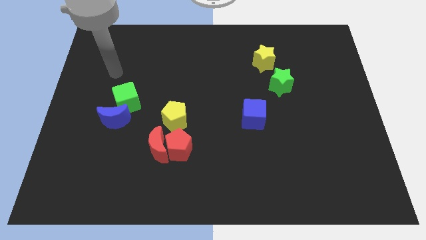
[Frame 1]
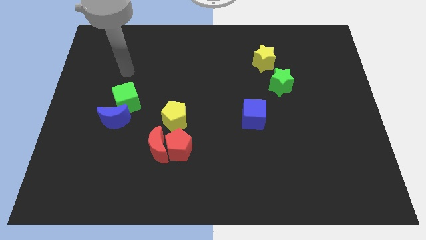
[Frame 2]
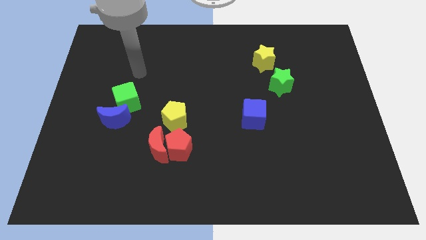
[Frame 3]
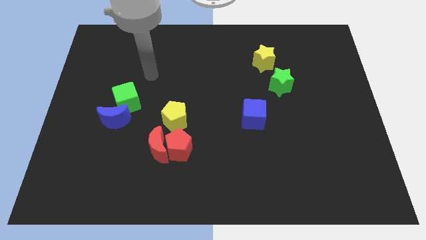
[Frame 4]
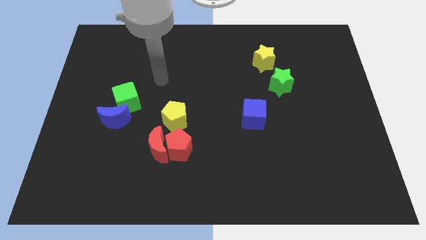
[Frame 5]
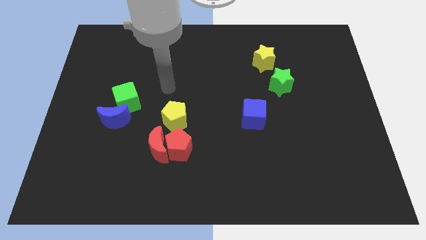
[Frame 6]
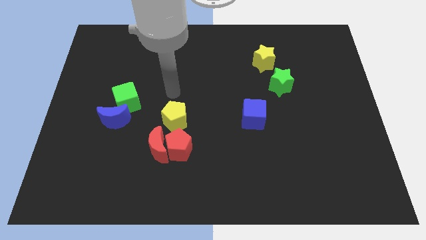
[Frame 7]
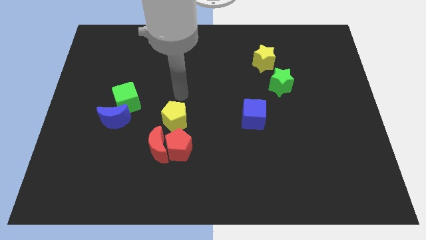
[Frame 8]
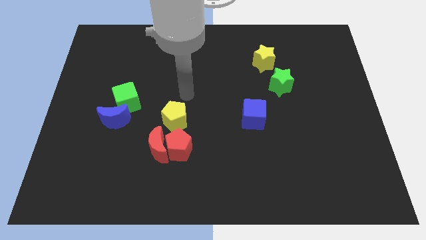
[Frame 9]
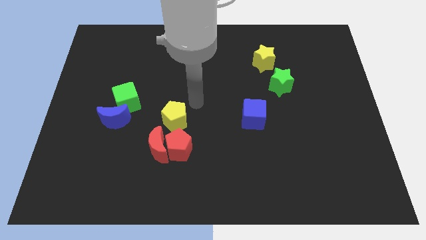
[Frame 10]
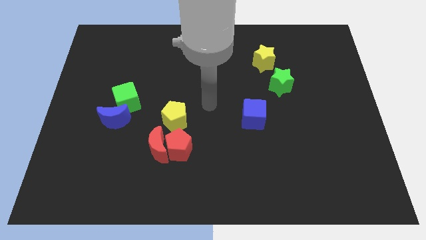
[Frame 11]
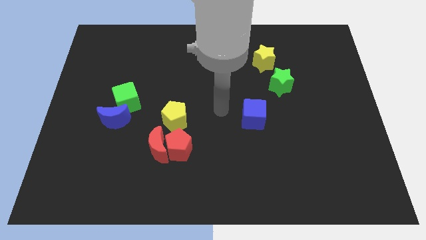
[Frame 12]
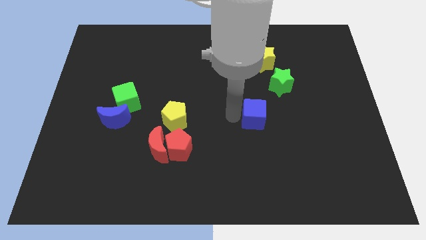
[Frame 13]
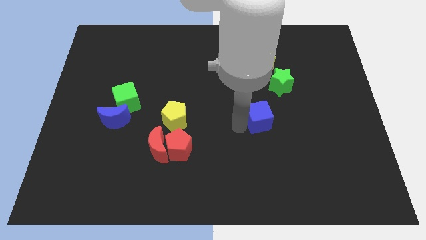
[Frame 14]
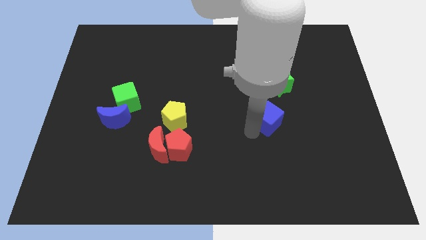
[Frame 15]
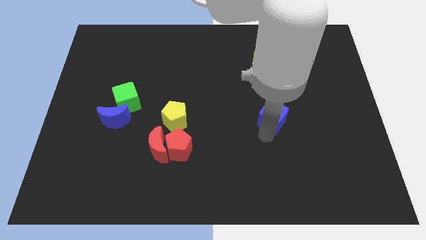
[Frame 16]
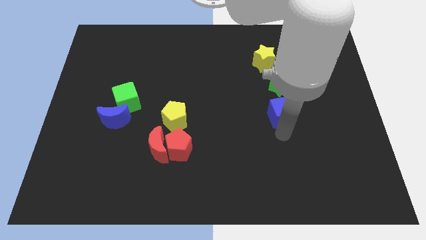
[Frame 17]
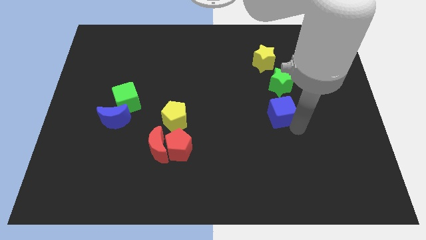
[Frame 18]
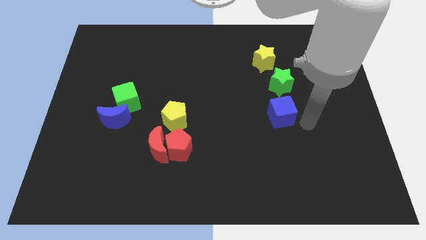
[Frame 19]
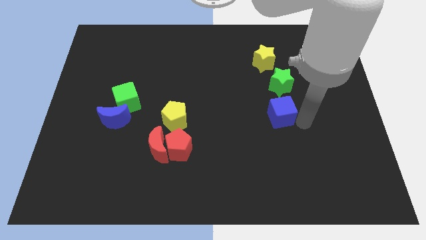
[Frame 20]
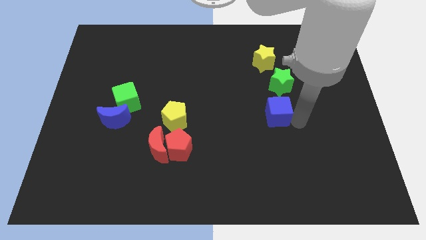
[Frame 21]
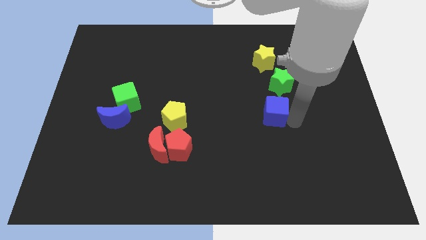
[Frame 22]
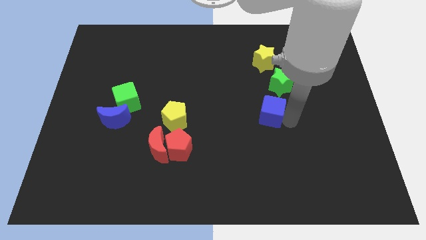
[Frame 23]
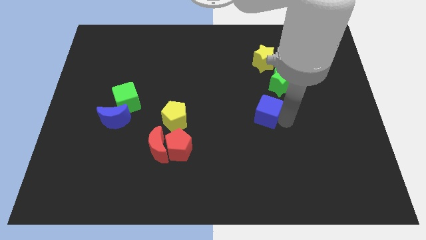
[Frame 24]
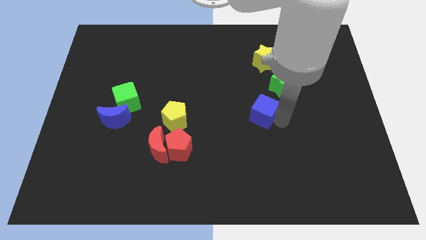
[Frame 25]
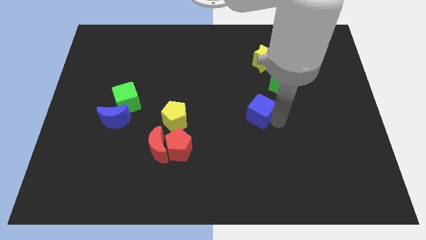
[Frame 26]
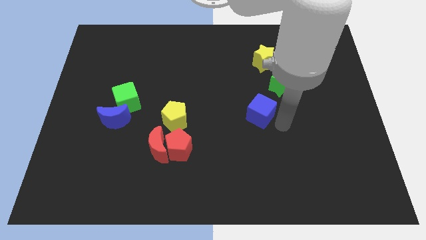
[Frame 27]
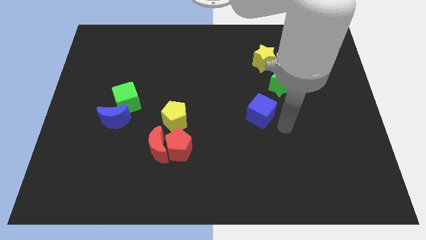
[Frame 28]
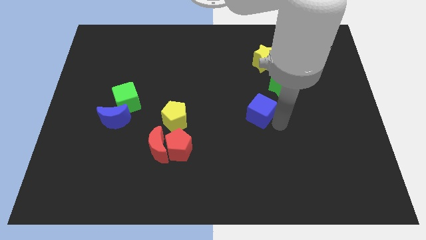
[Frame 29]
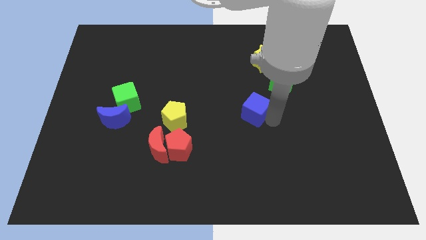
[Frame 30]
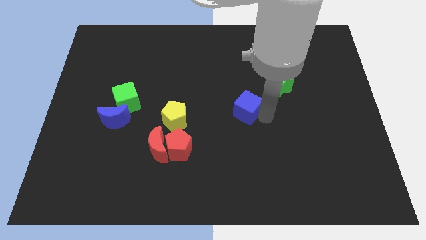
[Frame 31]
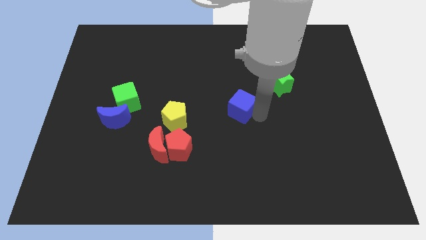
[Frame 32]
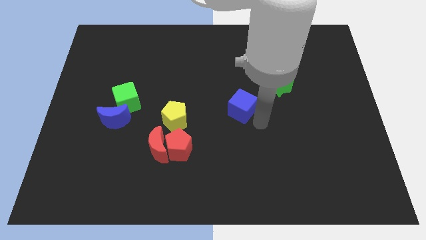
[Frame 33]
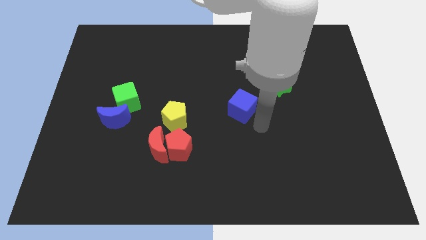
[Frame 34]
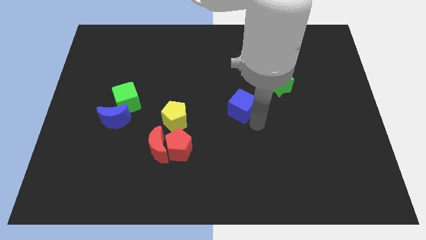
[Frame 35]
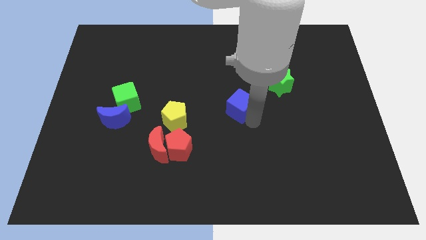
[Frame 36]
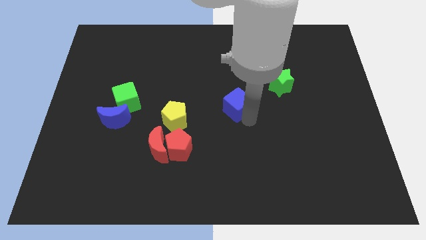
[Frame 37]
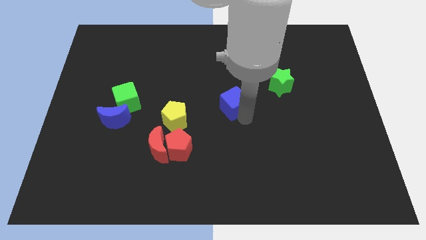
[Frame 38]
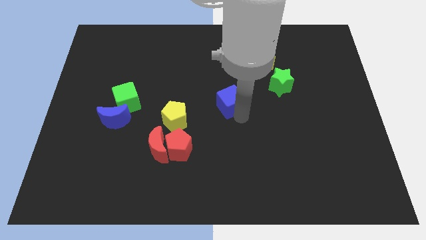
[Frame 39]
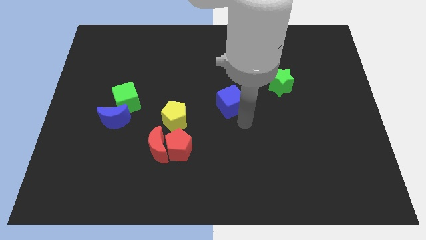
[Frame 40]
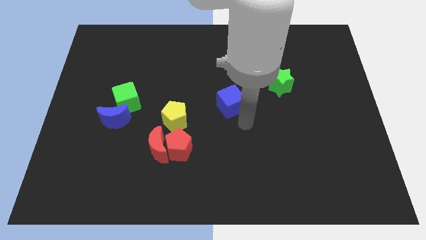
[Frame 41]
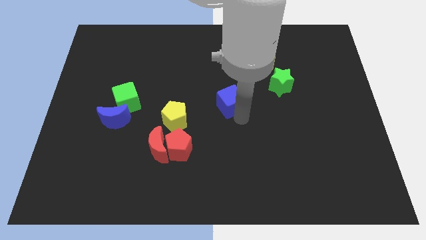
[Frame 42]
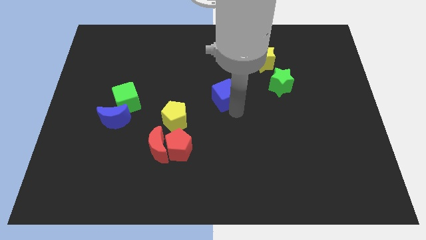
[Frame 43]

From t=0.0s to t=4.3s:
slide the blue cube upwards and then left a little

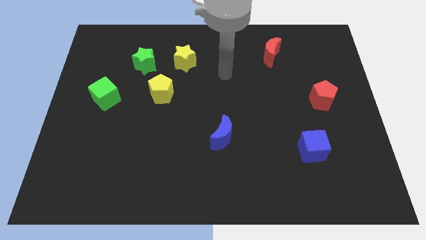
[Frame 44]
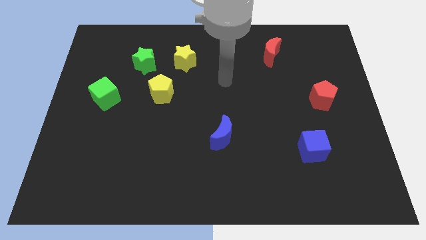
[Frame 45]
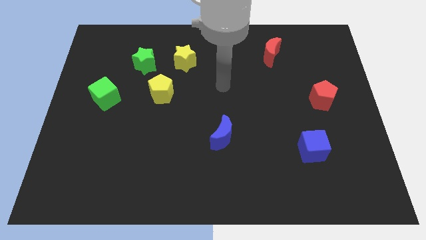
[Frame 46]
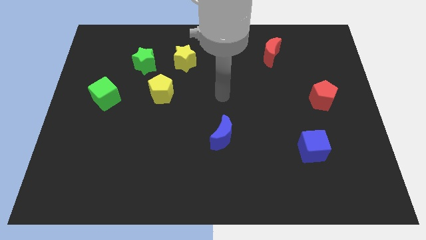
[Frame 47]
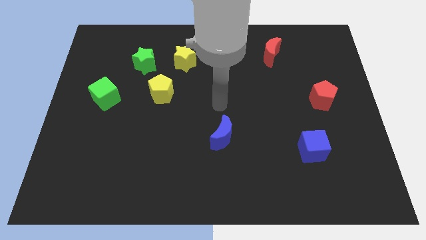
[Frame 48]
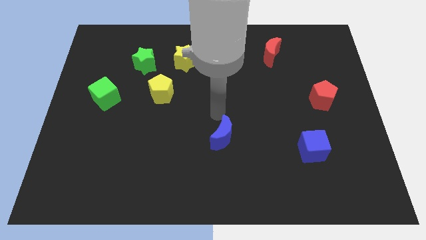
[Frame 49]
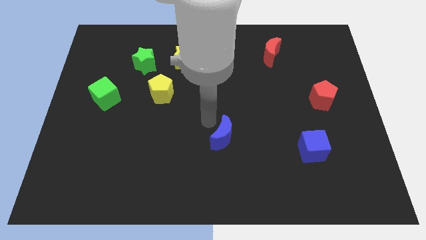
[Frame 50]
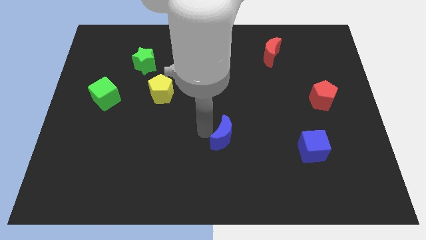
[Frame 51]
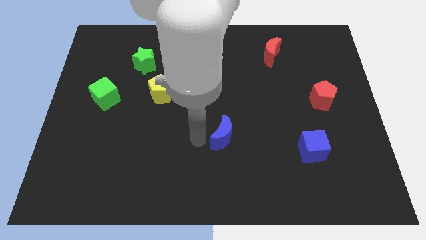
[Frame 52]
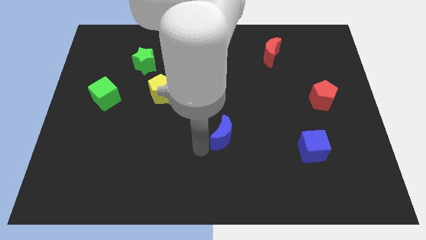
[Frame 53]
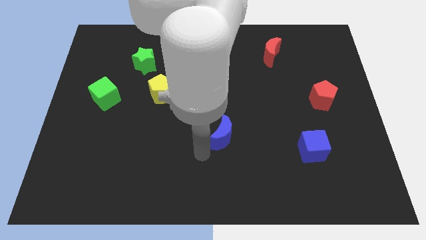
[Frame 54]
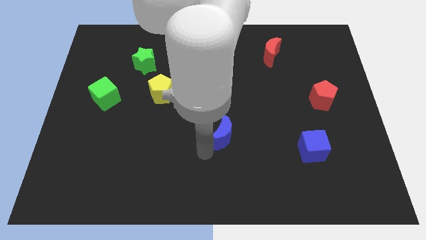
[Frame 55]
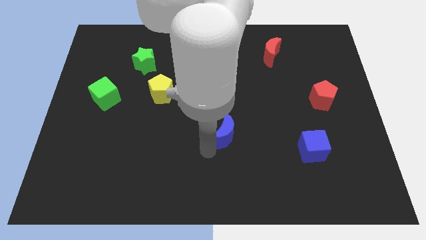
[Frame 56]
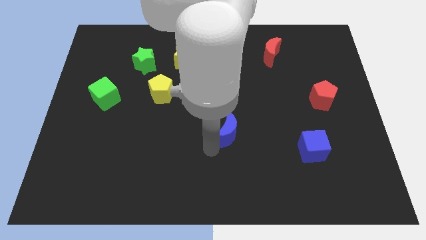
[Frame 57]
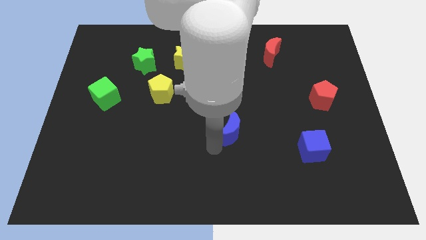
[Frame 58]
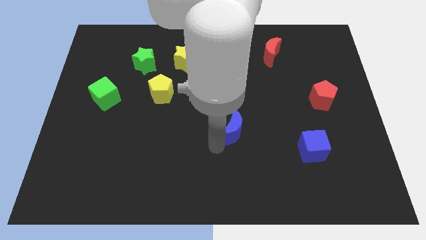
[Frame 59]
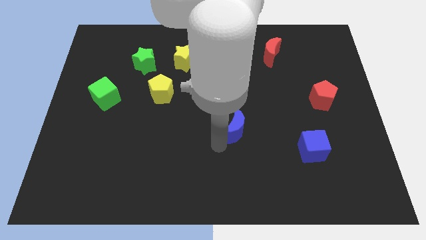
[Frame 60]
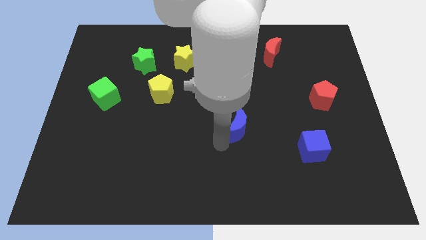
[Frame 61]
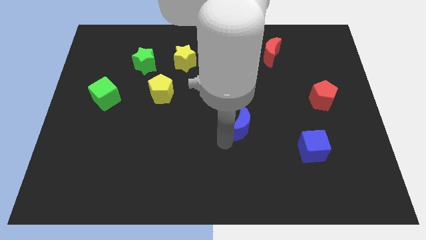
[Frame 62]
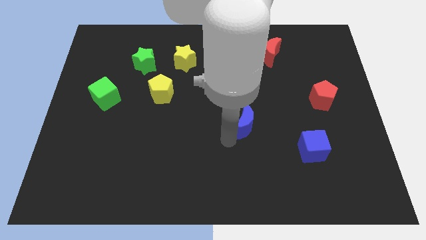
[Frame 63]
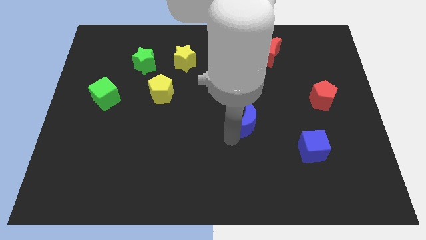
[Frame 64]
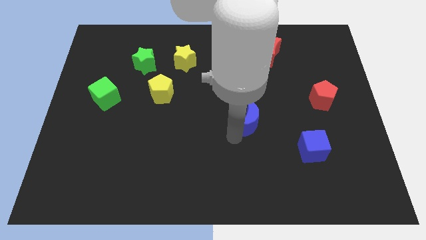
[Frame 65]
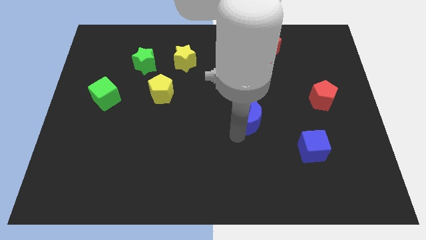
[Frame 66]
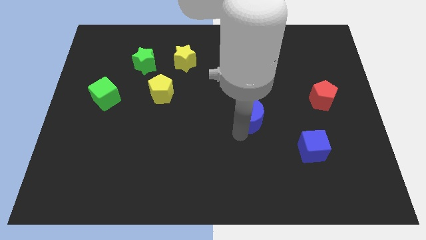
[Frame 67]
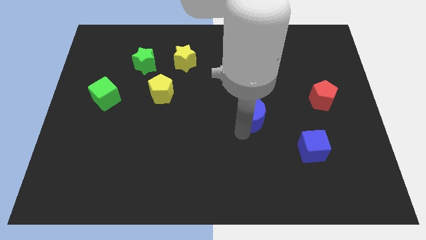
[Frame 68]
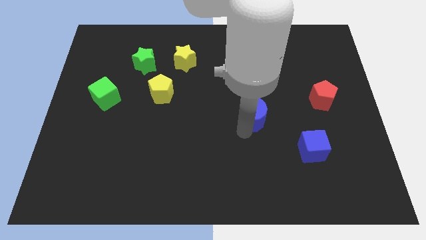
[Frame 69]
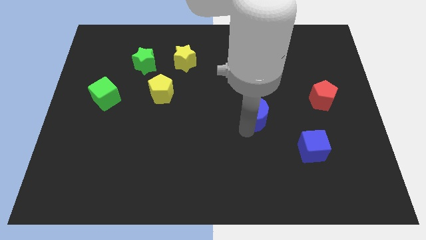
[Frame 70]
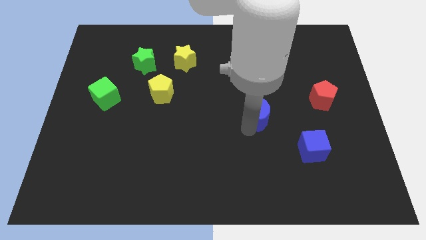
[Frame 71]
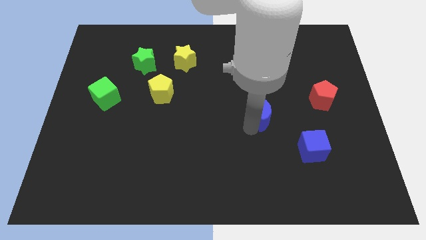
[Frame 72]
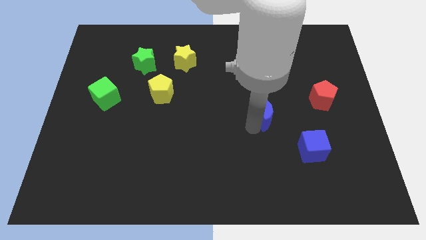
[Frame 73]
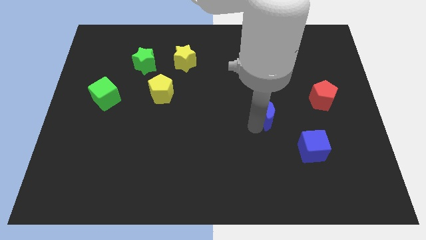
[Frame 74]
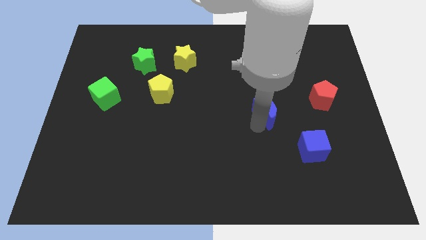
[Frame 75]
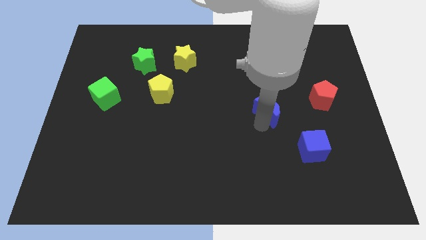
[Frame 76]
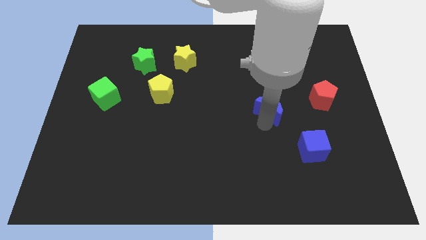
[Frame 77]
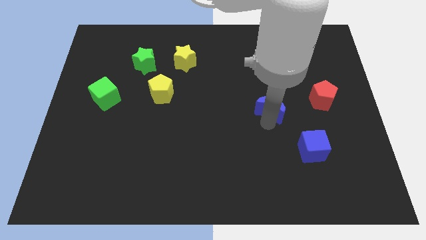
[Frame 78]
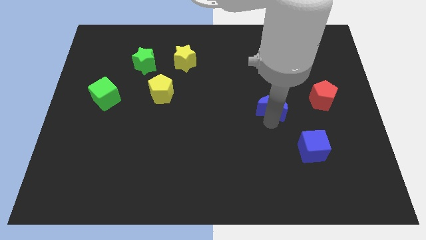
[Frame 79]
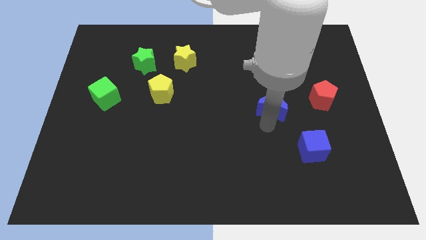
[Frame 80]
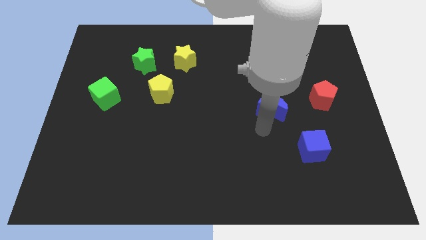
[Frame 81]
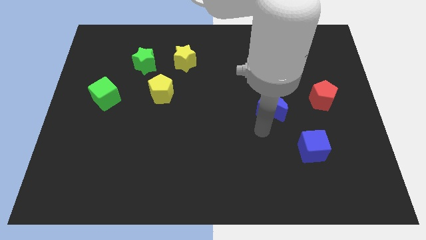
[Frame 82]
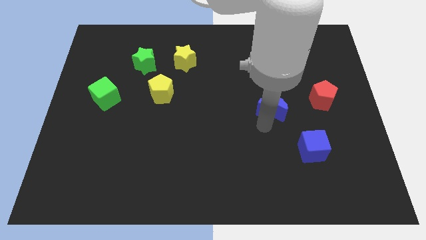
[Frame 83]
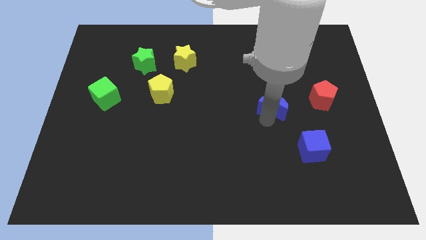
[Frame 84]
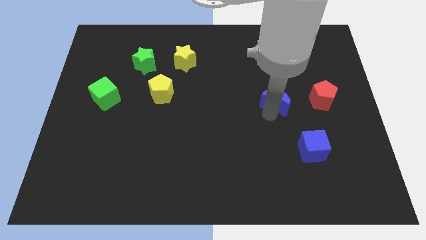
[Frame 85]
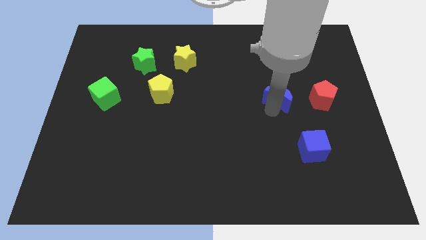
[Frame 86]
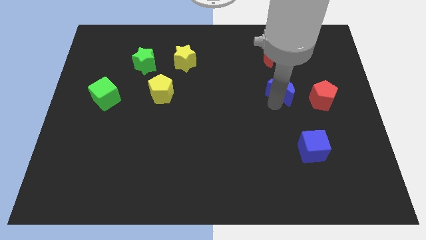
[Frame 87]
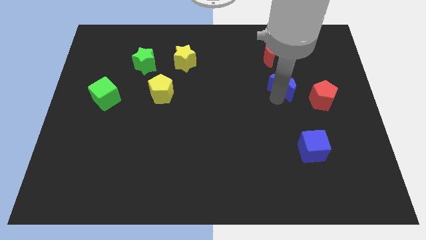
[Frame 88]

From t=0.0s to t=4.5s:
slide the blue moon up and right
